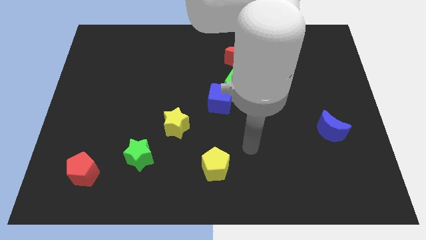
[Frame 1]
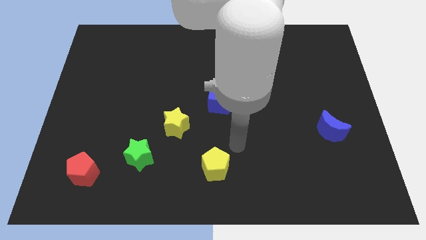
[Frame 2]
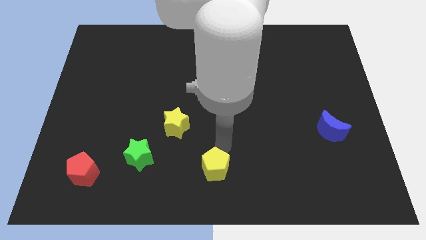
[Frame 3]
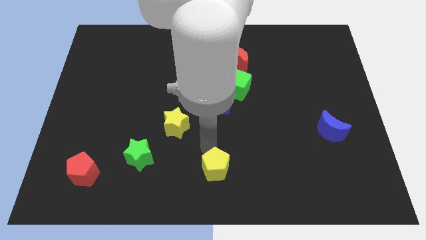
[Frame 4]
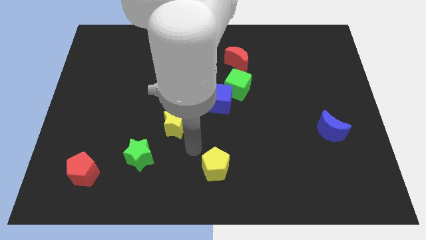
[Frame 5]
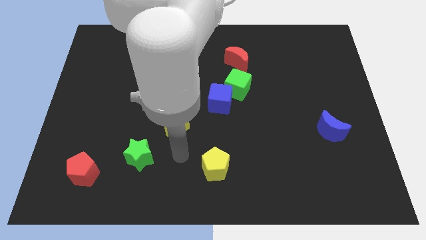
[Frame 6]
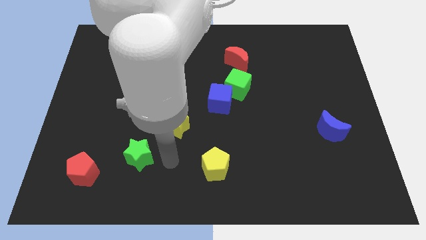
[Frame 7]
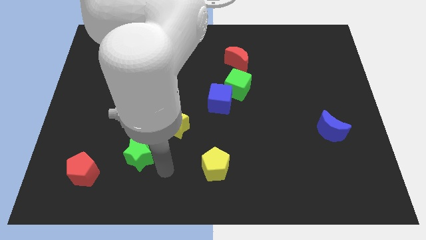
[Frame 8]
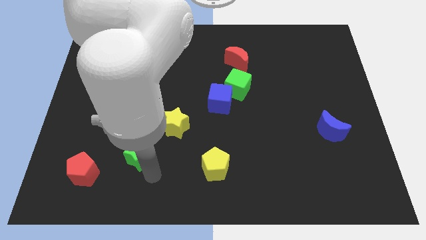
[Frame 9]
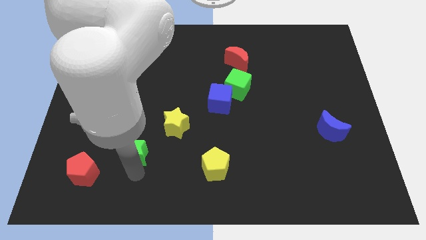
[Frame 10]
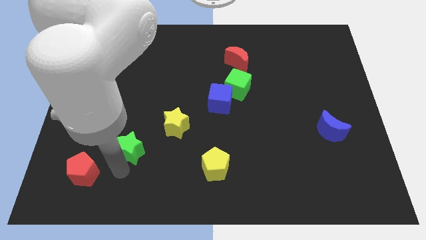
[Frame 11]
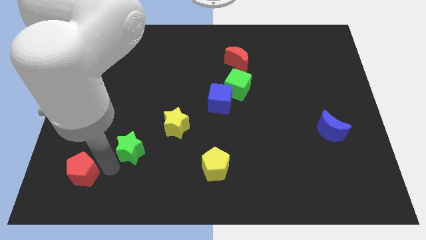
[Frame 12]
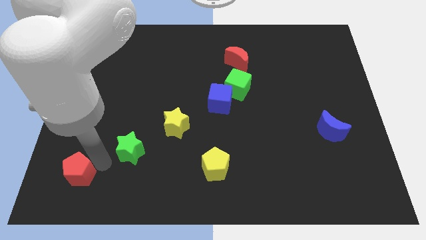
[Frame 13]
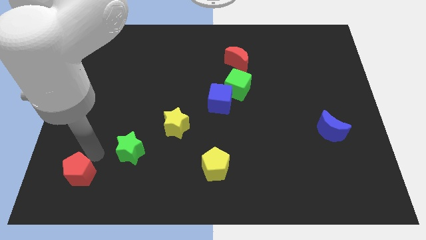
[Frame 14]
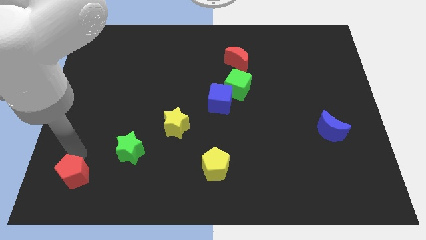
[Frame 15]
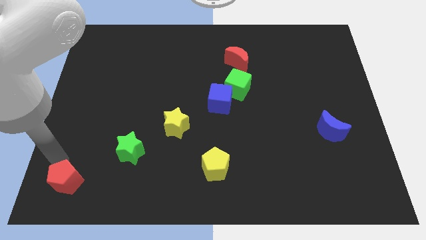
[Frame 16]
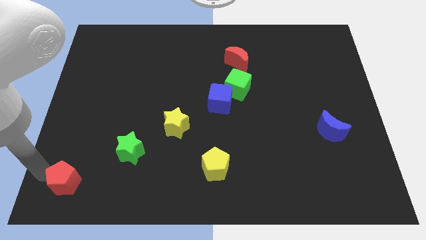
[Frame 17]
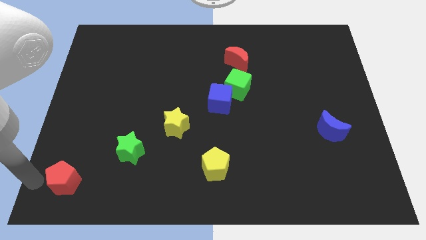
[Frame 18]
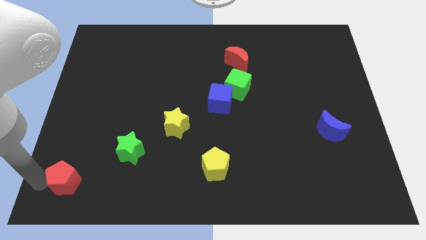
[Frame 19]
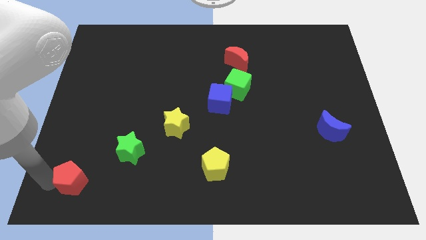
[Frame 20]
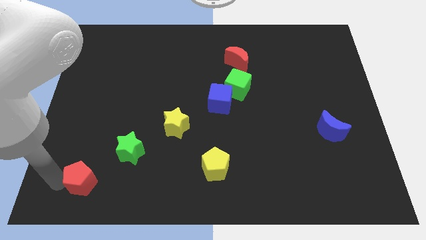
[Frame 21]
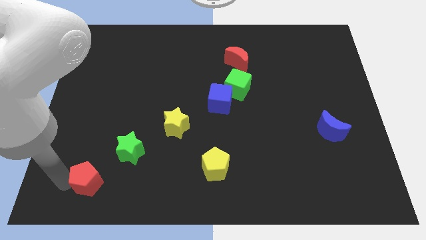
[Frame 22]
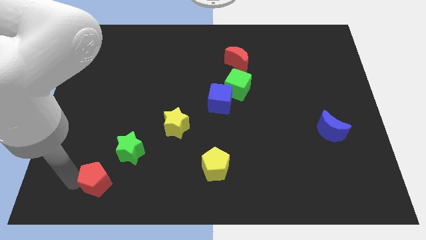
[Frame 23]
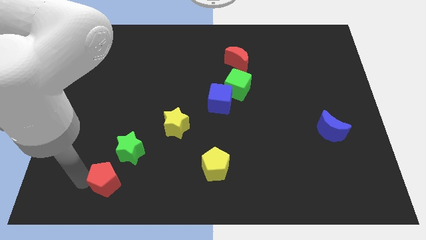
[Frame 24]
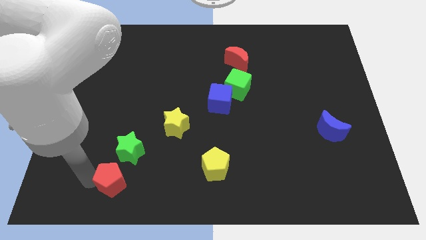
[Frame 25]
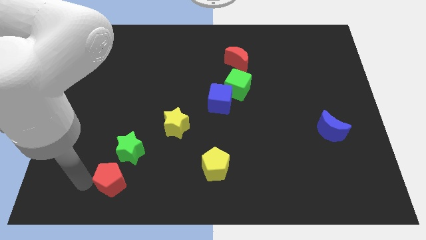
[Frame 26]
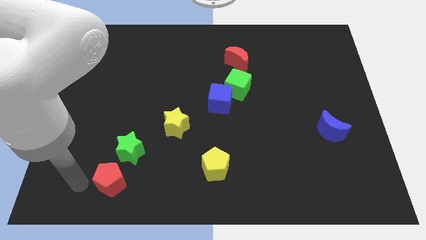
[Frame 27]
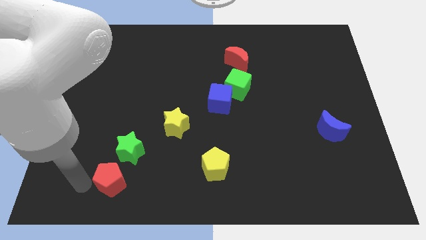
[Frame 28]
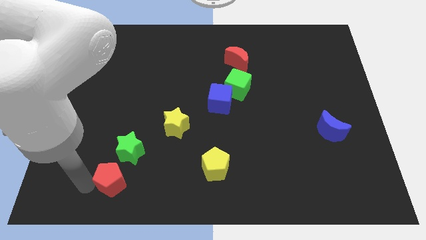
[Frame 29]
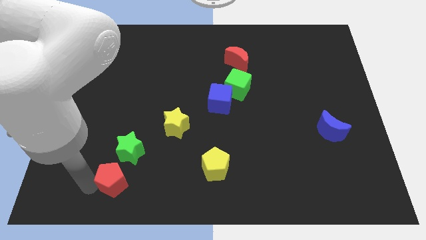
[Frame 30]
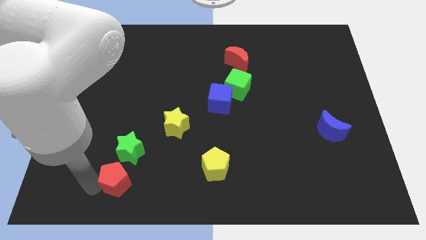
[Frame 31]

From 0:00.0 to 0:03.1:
slightly move the red pentagon to the right

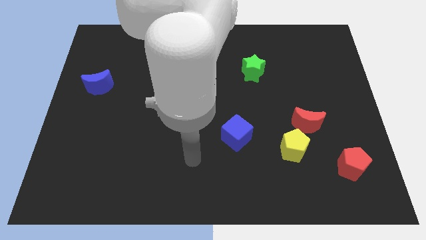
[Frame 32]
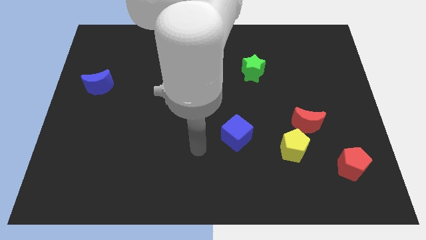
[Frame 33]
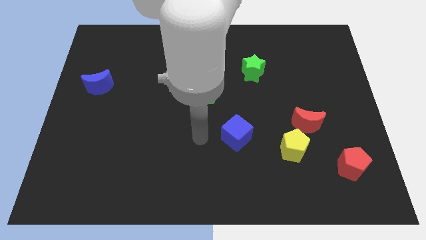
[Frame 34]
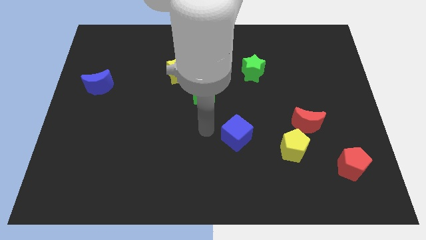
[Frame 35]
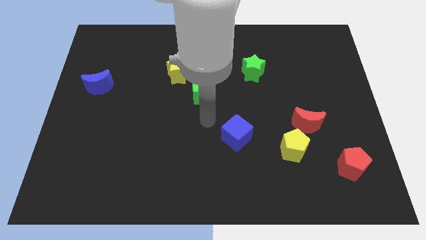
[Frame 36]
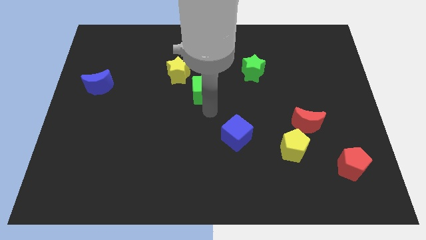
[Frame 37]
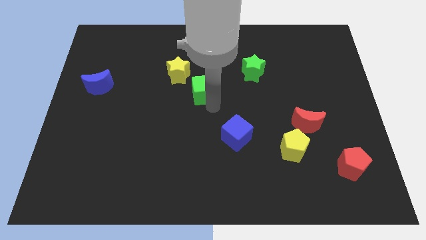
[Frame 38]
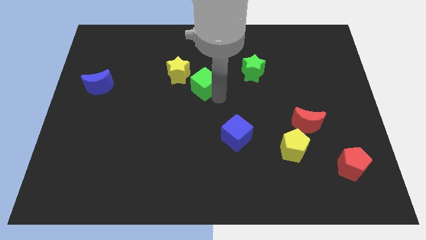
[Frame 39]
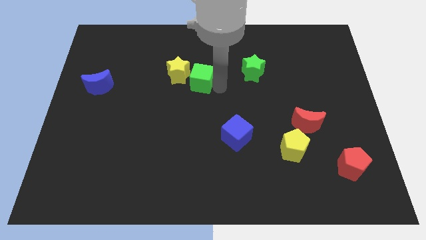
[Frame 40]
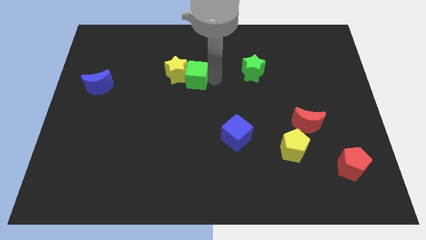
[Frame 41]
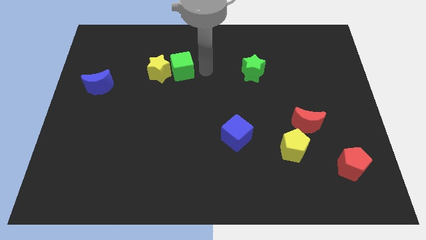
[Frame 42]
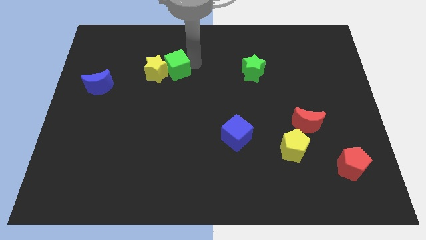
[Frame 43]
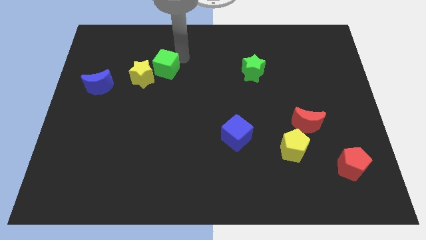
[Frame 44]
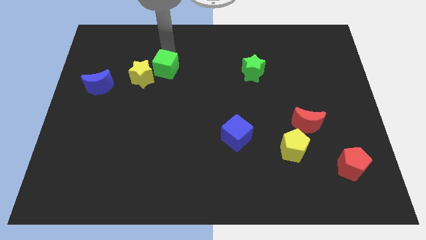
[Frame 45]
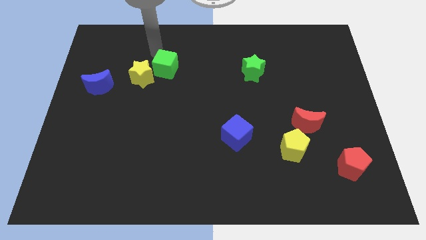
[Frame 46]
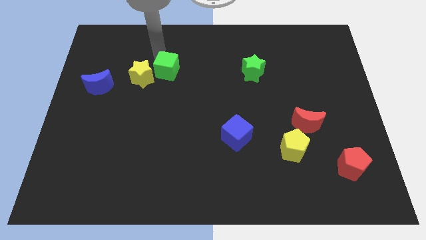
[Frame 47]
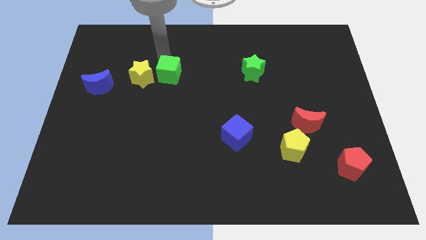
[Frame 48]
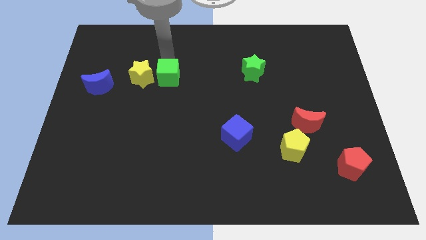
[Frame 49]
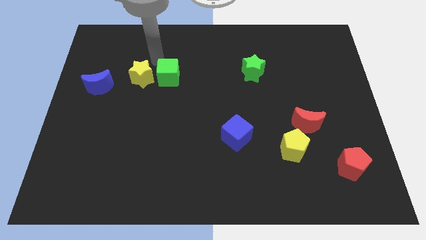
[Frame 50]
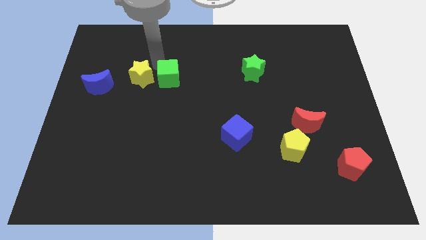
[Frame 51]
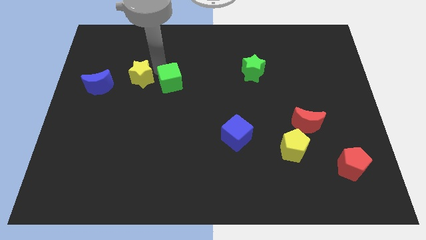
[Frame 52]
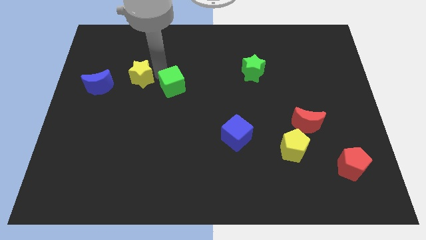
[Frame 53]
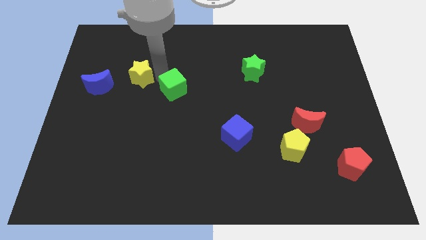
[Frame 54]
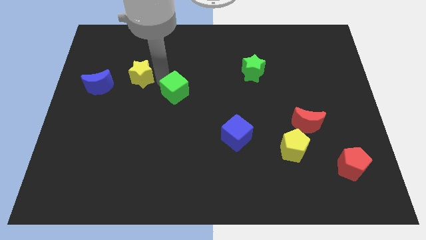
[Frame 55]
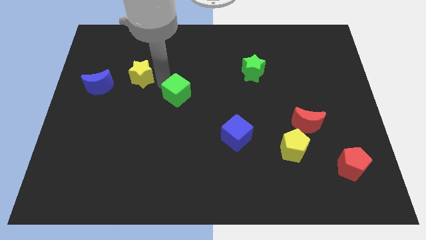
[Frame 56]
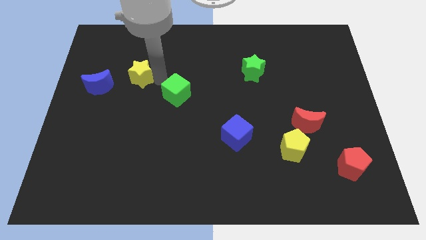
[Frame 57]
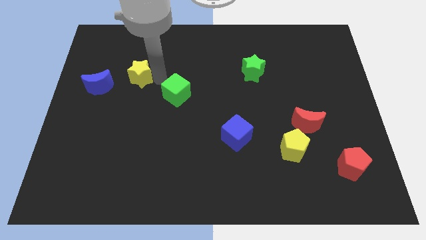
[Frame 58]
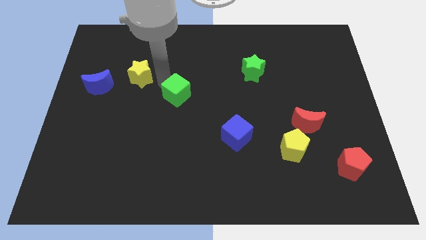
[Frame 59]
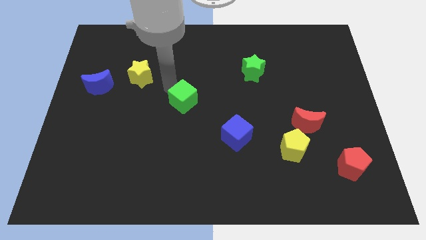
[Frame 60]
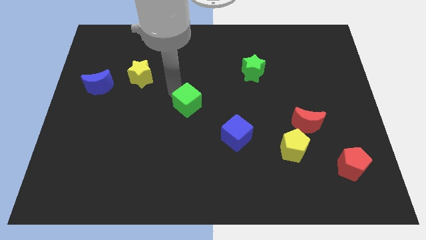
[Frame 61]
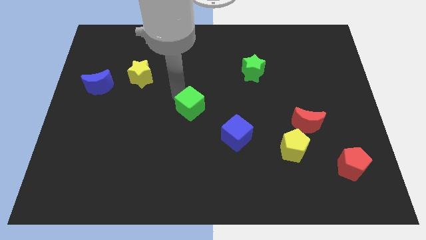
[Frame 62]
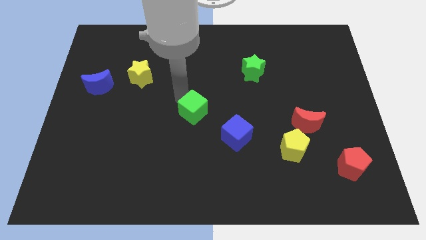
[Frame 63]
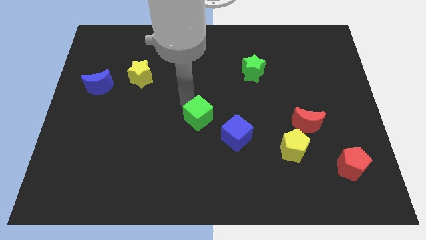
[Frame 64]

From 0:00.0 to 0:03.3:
slide the green cube somewhat downwards

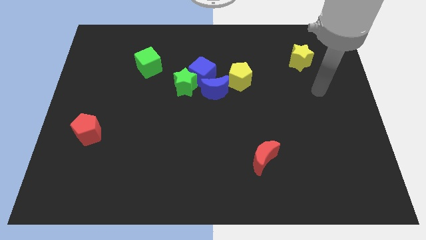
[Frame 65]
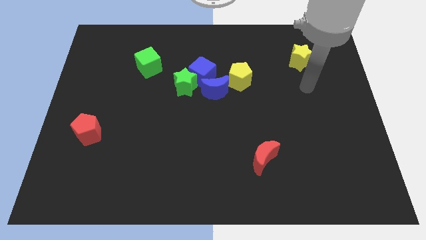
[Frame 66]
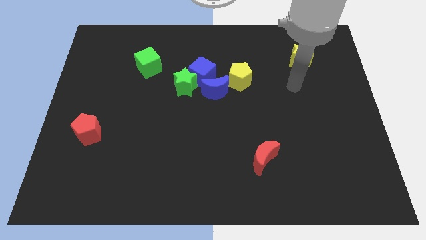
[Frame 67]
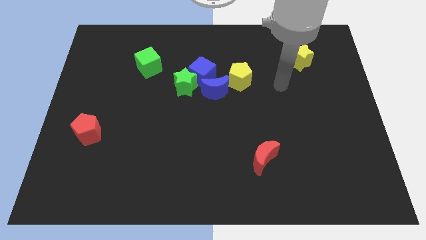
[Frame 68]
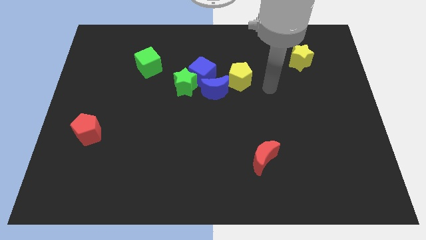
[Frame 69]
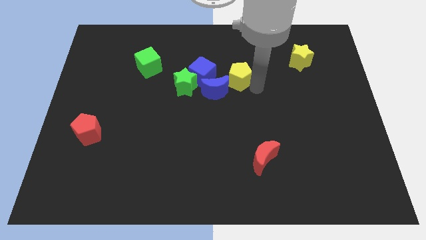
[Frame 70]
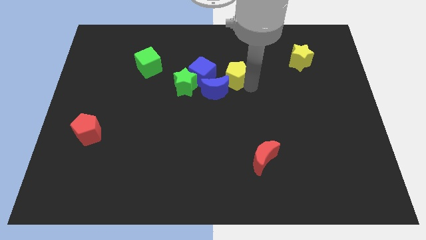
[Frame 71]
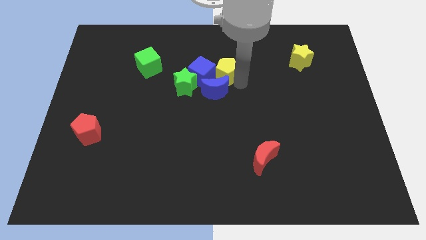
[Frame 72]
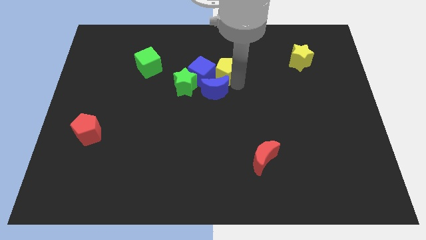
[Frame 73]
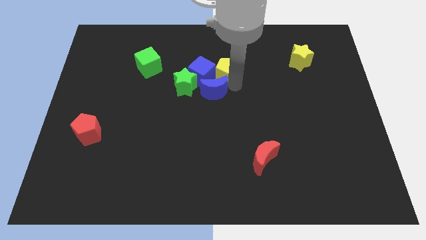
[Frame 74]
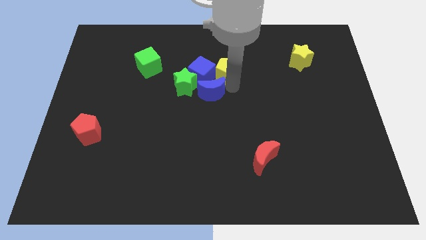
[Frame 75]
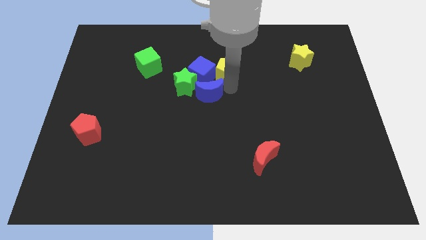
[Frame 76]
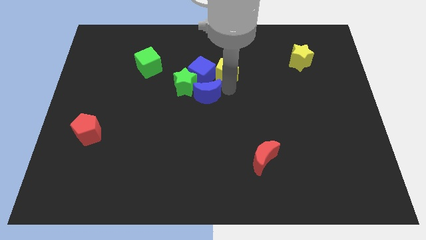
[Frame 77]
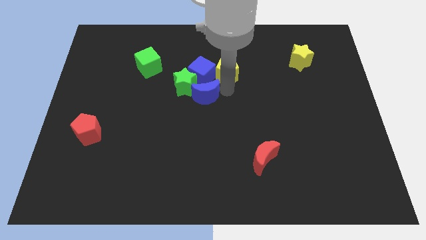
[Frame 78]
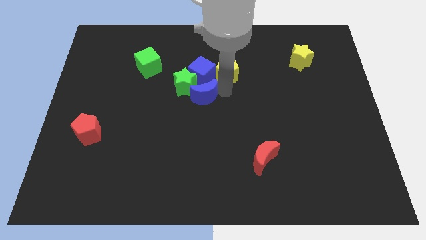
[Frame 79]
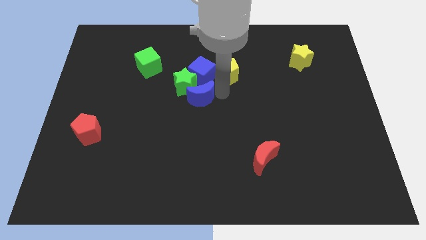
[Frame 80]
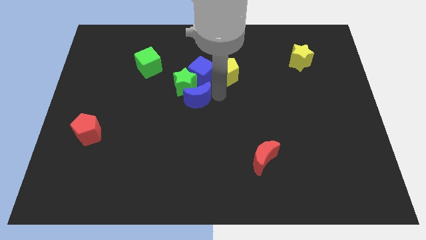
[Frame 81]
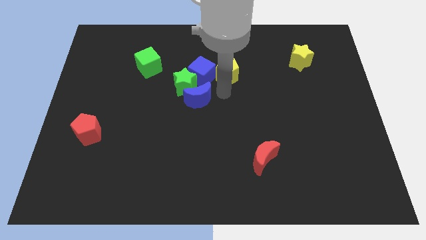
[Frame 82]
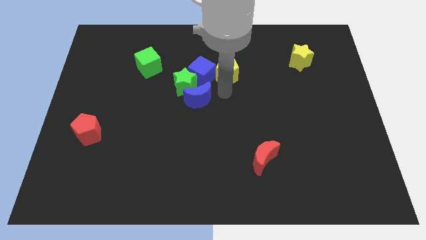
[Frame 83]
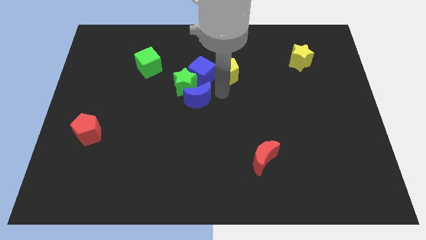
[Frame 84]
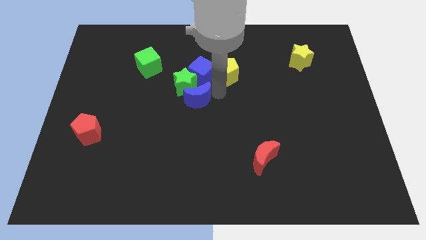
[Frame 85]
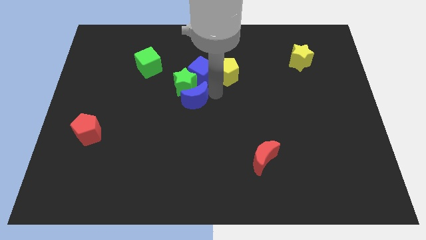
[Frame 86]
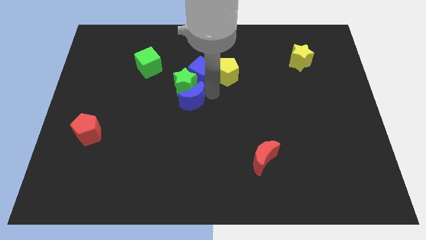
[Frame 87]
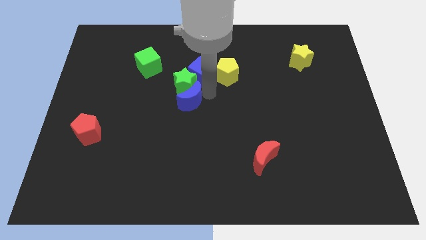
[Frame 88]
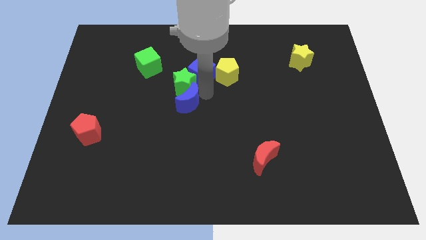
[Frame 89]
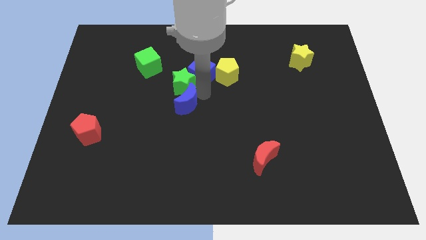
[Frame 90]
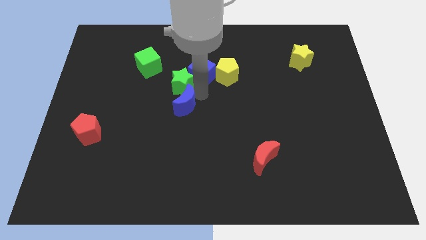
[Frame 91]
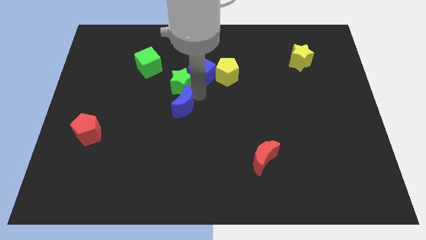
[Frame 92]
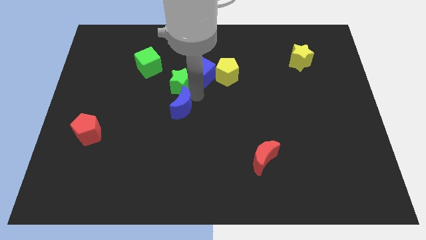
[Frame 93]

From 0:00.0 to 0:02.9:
push the blue moon somewhat to the left
